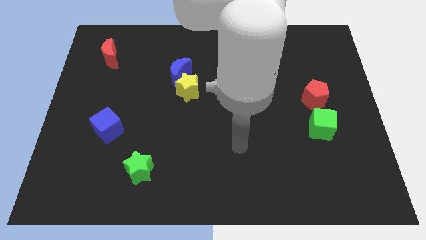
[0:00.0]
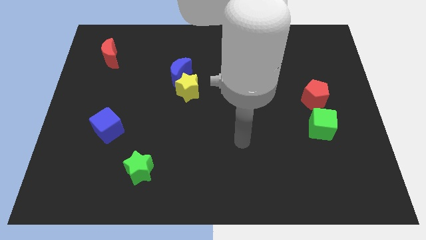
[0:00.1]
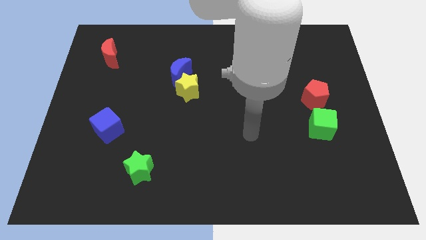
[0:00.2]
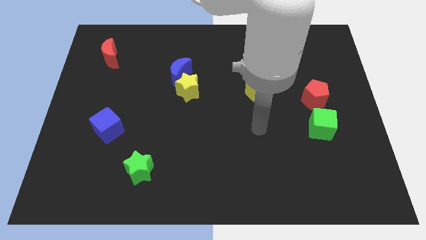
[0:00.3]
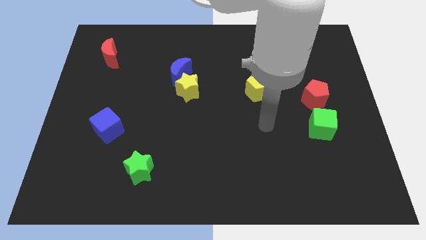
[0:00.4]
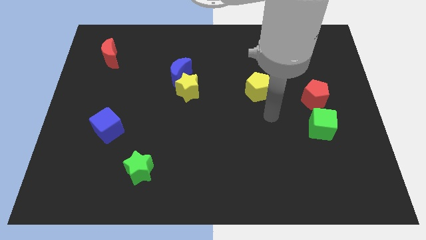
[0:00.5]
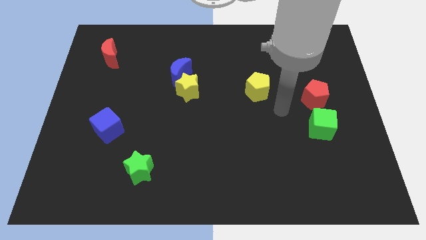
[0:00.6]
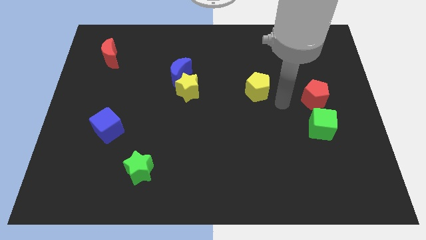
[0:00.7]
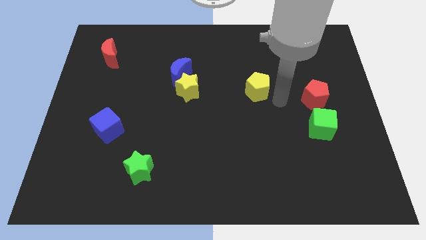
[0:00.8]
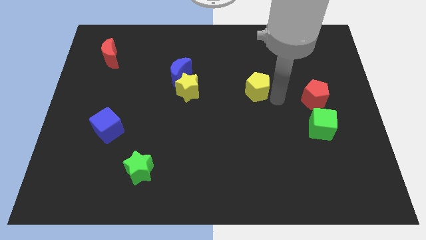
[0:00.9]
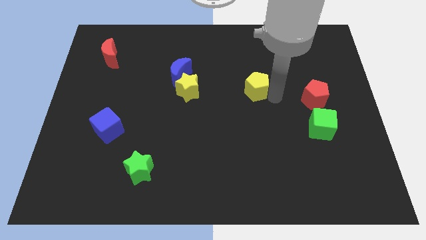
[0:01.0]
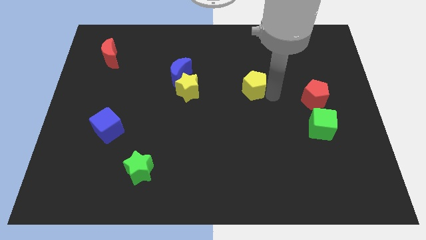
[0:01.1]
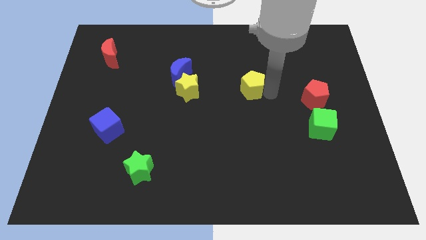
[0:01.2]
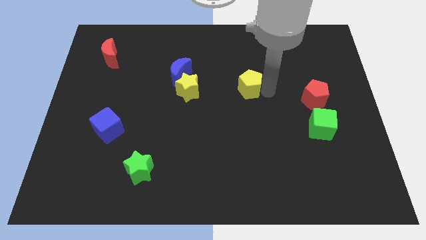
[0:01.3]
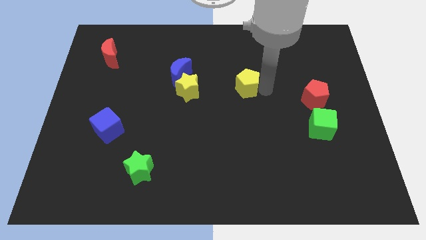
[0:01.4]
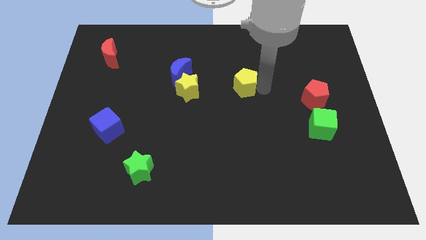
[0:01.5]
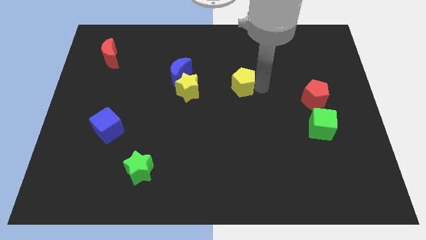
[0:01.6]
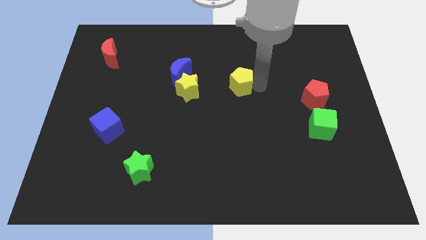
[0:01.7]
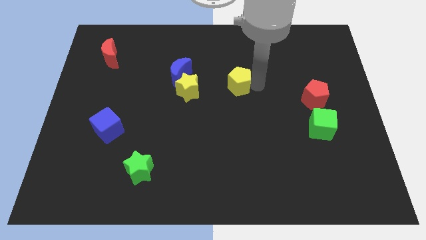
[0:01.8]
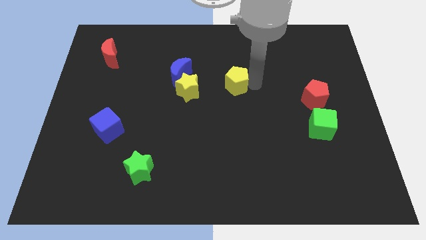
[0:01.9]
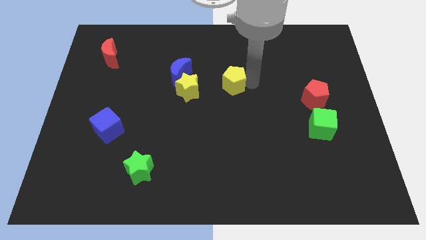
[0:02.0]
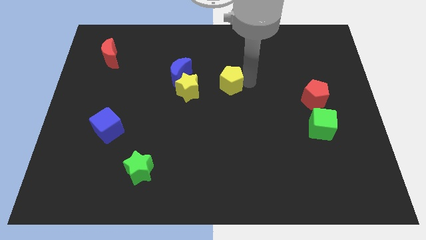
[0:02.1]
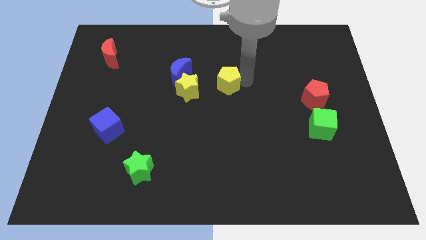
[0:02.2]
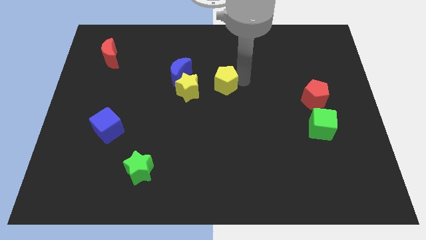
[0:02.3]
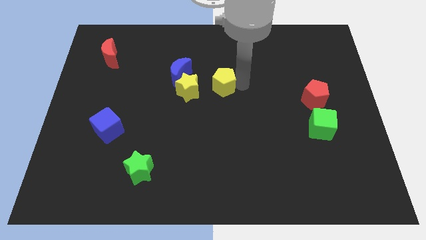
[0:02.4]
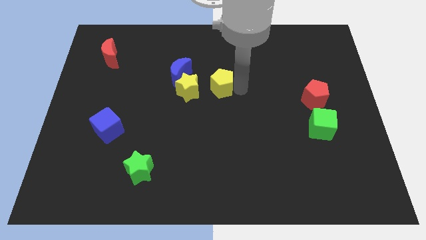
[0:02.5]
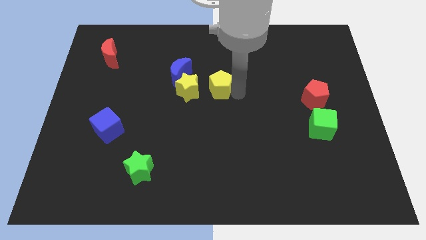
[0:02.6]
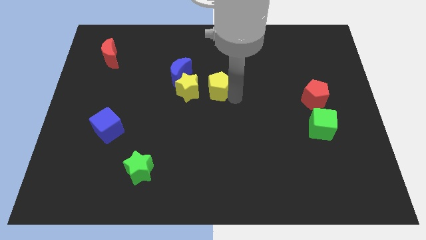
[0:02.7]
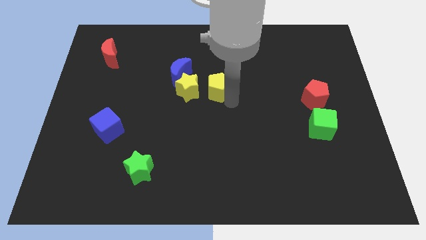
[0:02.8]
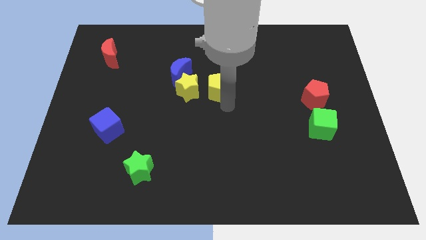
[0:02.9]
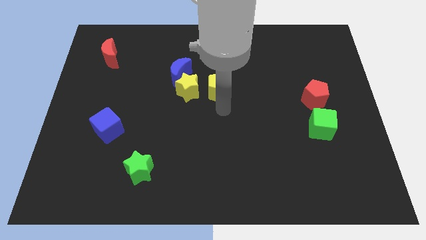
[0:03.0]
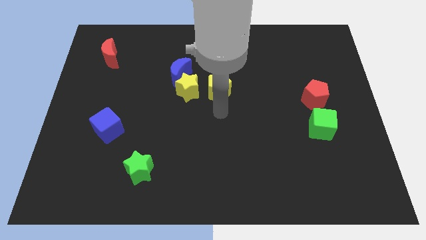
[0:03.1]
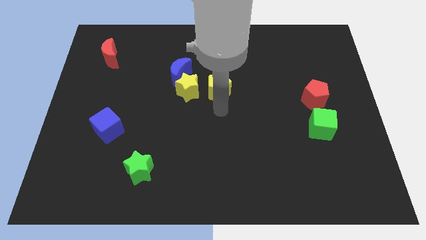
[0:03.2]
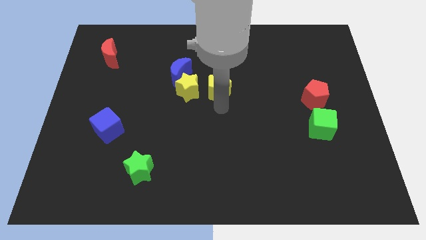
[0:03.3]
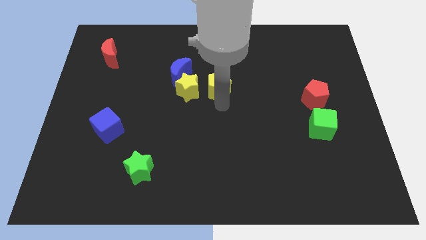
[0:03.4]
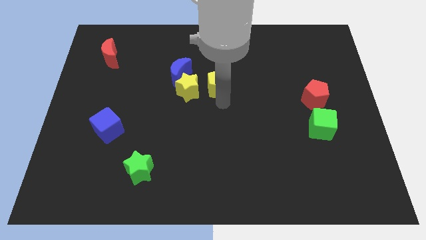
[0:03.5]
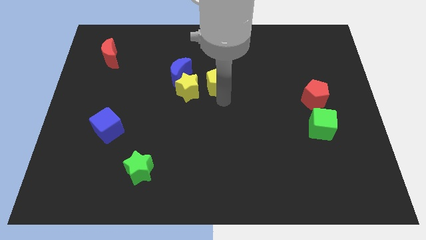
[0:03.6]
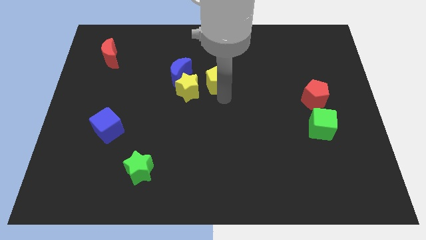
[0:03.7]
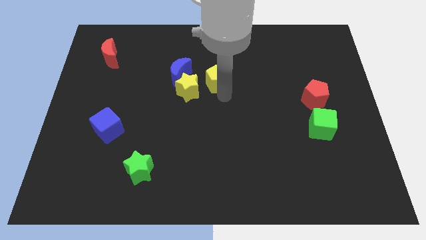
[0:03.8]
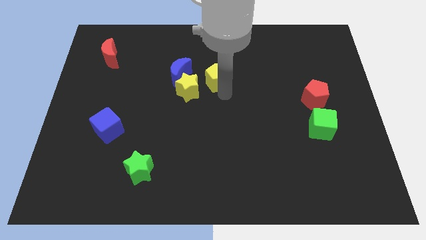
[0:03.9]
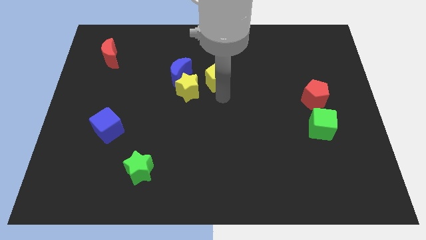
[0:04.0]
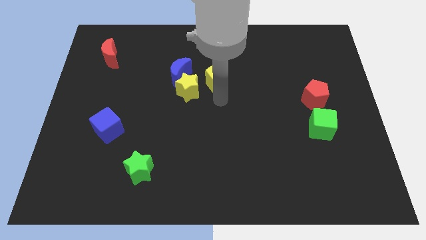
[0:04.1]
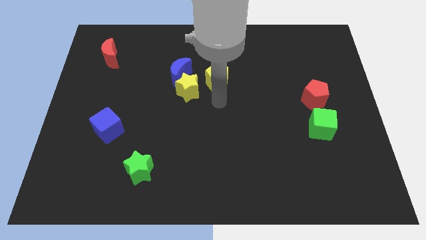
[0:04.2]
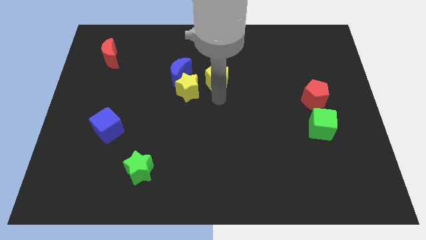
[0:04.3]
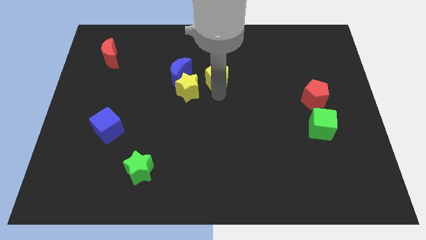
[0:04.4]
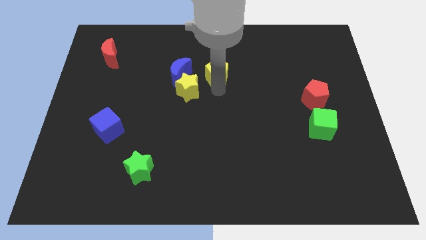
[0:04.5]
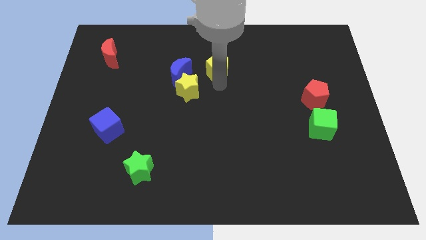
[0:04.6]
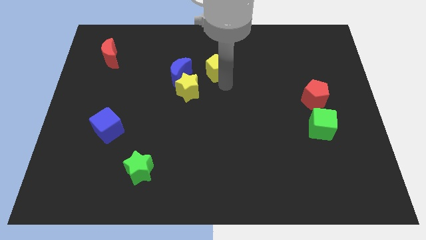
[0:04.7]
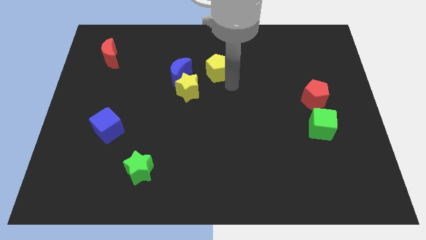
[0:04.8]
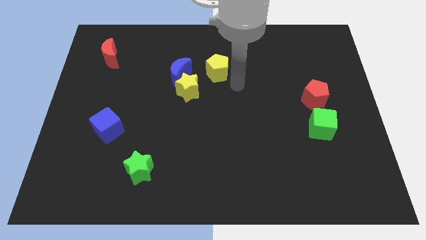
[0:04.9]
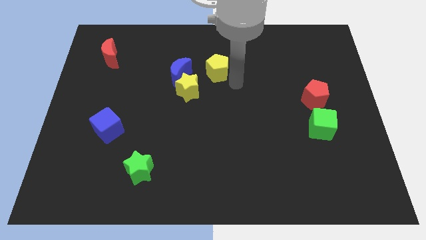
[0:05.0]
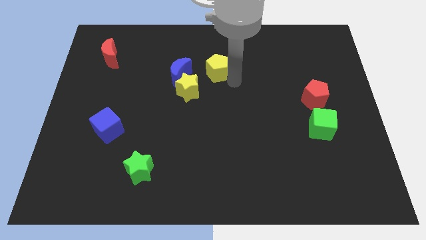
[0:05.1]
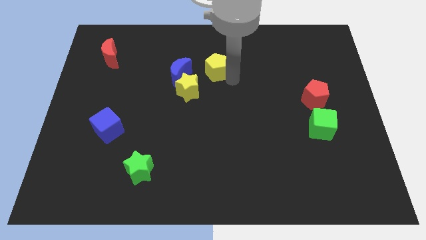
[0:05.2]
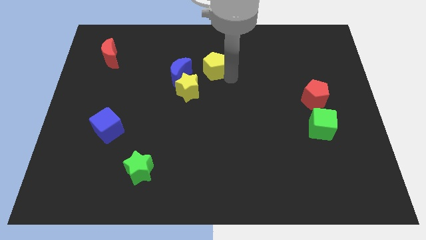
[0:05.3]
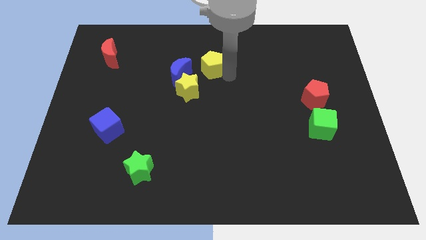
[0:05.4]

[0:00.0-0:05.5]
move the yellow pentagon to the top right side of the blue moon

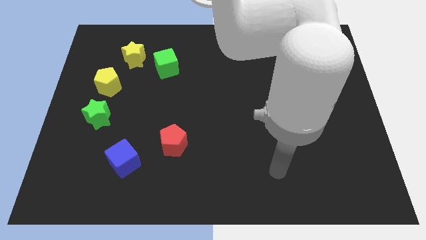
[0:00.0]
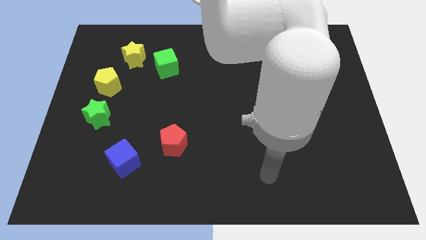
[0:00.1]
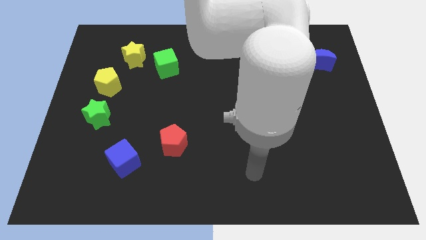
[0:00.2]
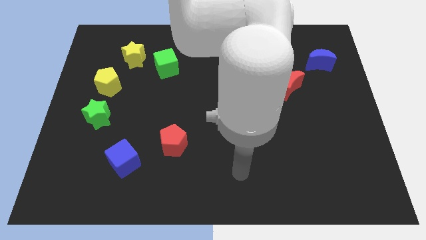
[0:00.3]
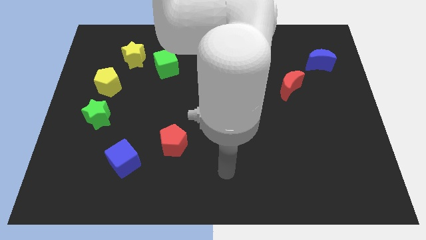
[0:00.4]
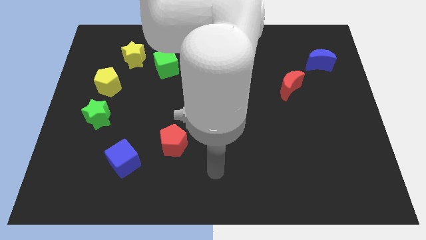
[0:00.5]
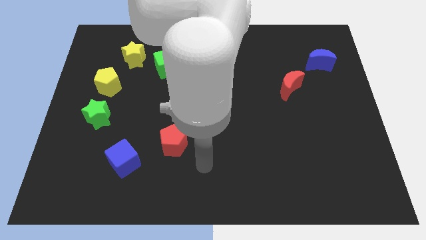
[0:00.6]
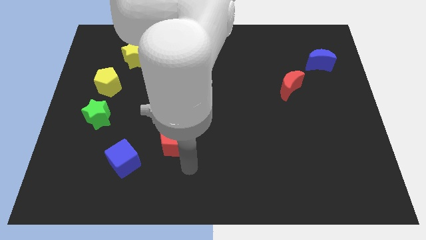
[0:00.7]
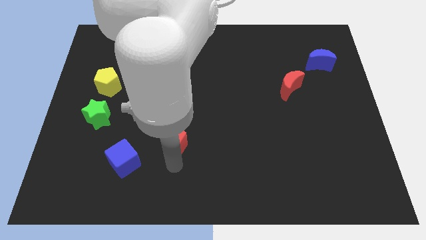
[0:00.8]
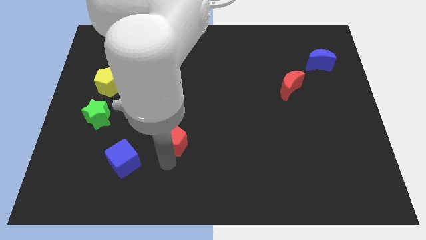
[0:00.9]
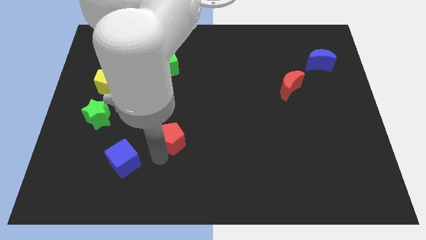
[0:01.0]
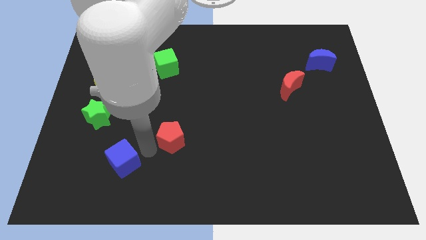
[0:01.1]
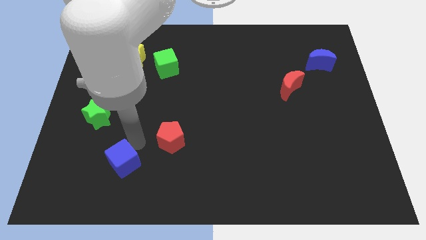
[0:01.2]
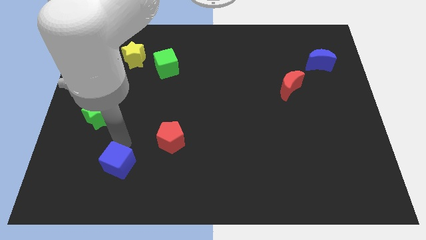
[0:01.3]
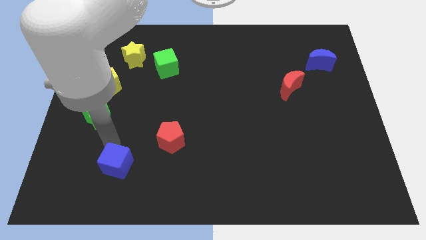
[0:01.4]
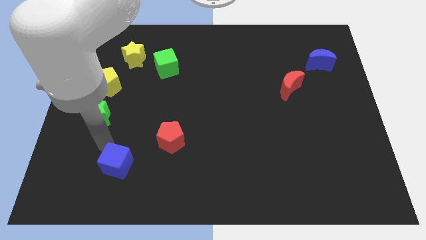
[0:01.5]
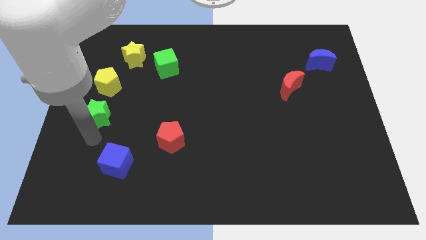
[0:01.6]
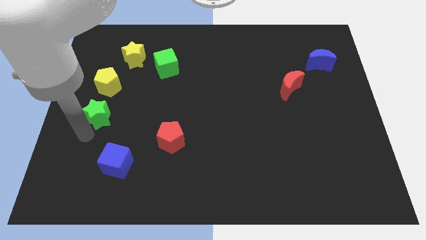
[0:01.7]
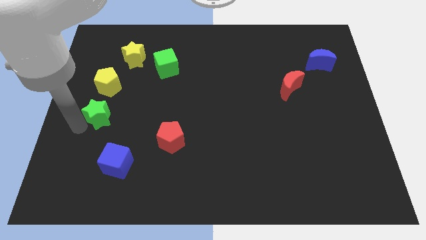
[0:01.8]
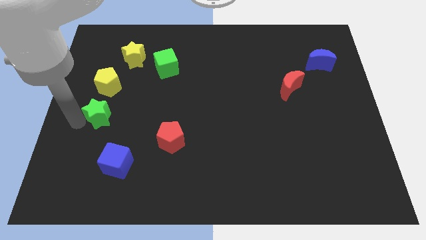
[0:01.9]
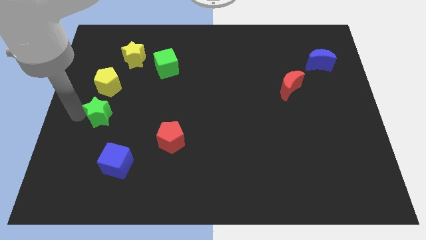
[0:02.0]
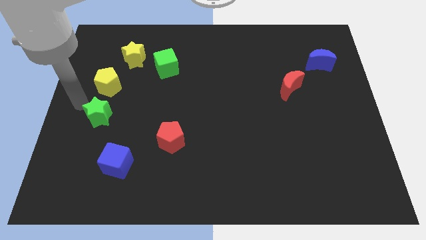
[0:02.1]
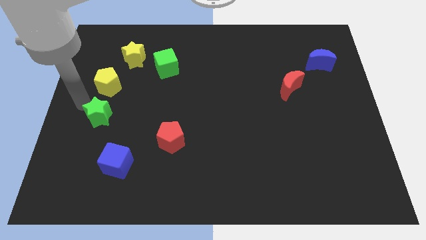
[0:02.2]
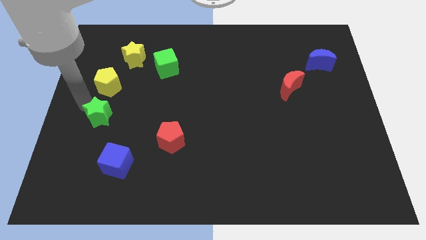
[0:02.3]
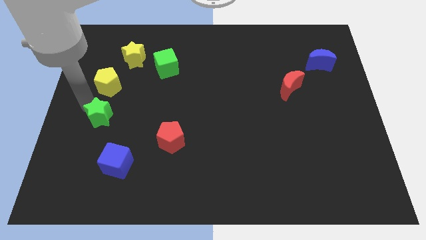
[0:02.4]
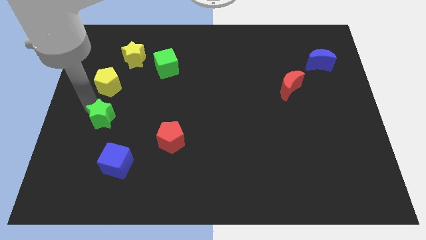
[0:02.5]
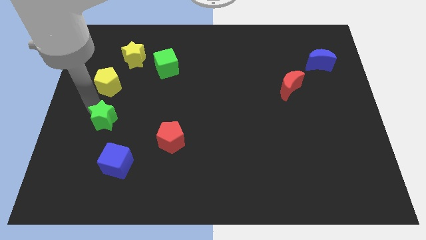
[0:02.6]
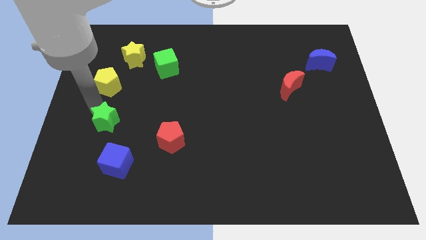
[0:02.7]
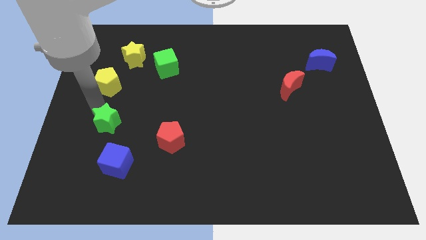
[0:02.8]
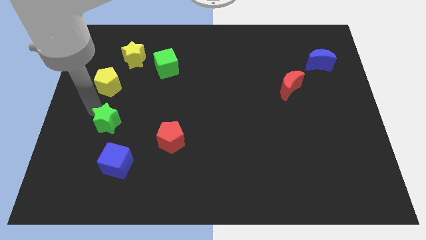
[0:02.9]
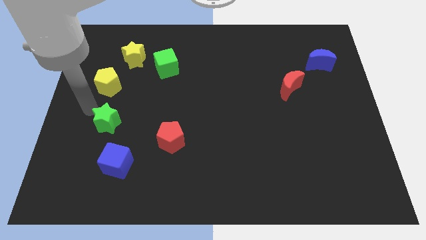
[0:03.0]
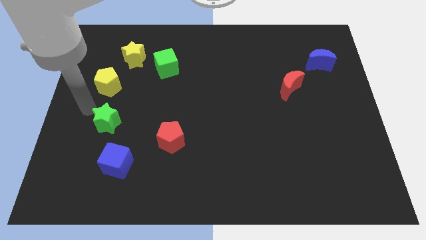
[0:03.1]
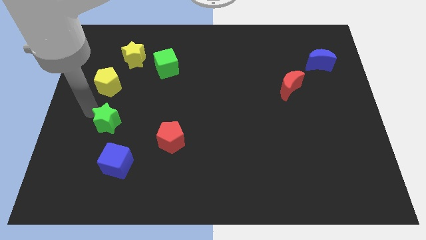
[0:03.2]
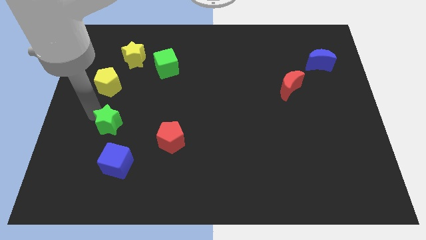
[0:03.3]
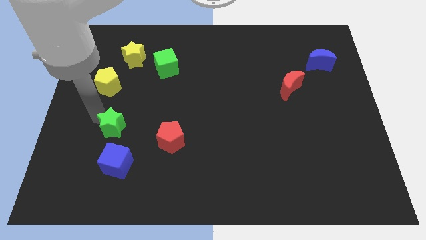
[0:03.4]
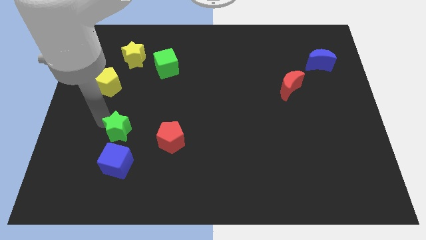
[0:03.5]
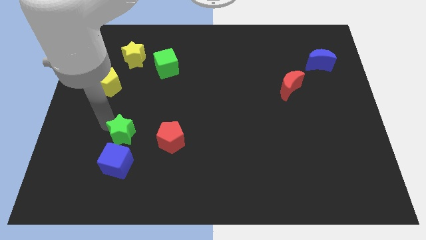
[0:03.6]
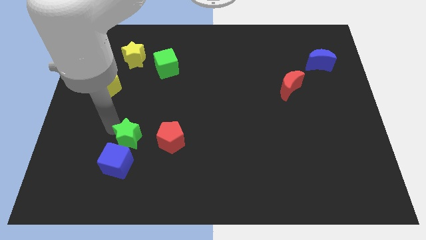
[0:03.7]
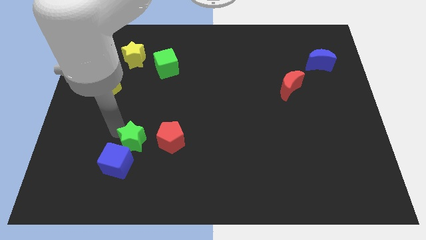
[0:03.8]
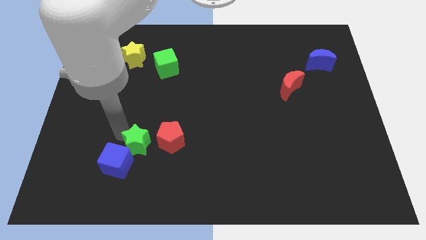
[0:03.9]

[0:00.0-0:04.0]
slide the green star to the bottom left of the red pentagon
